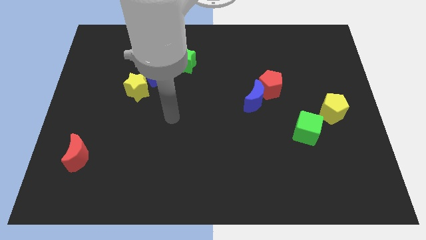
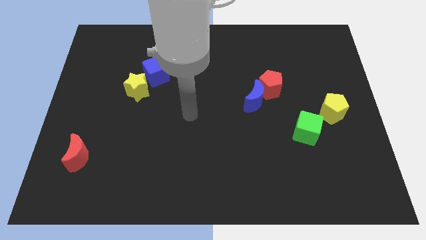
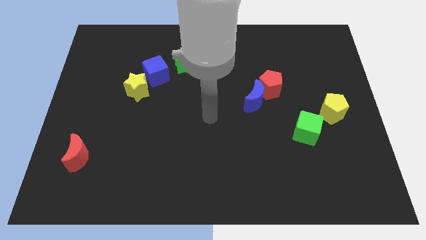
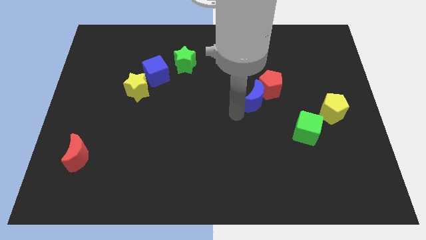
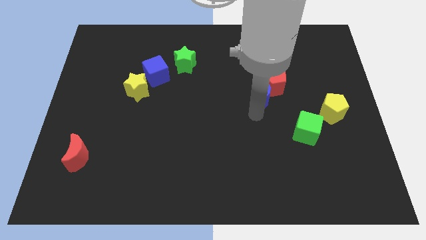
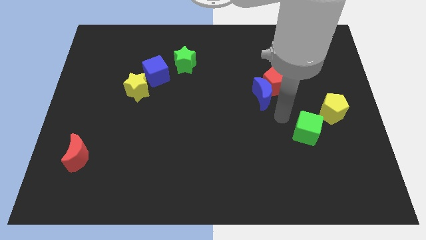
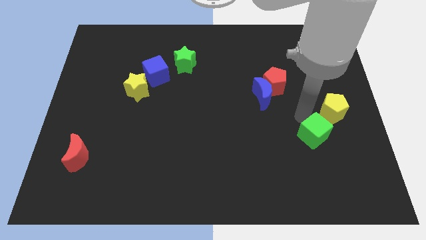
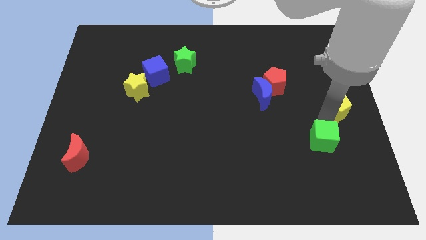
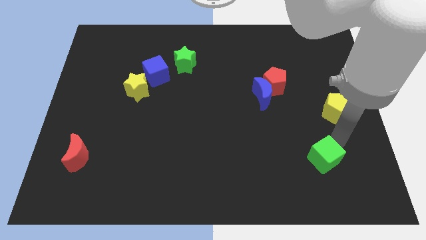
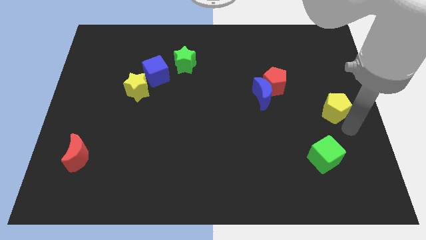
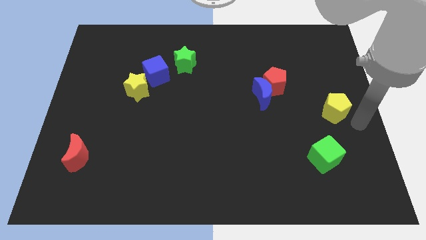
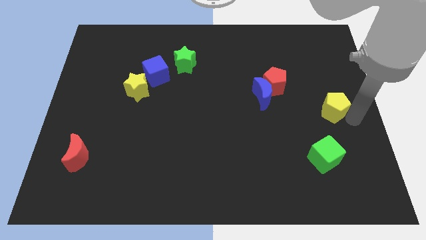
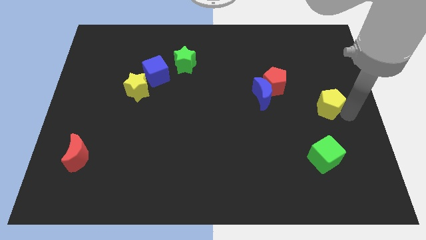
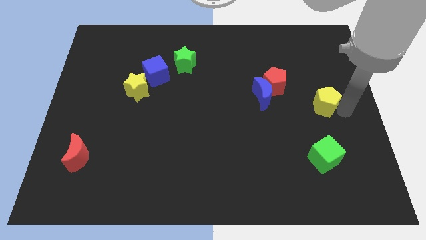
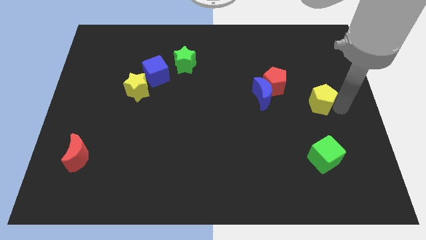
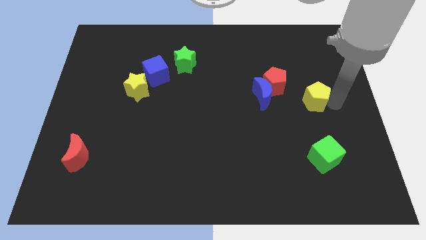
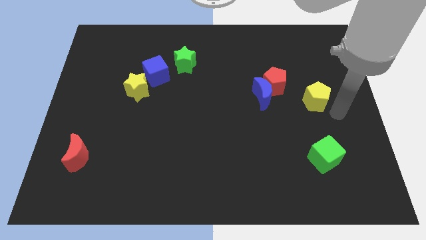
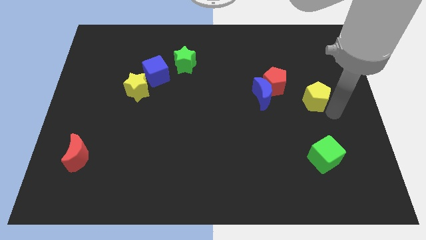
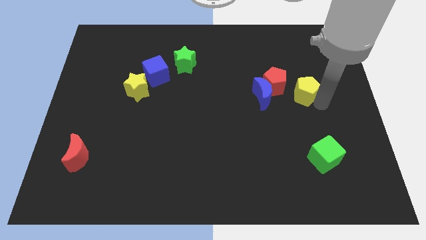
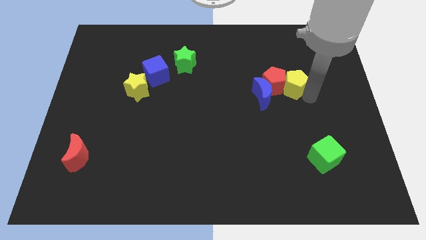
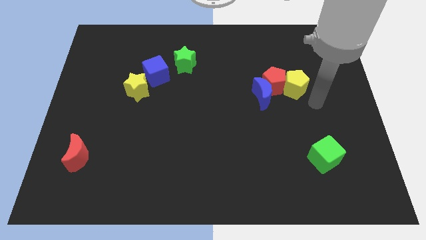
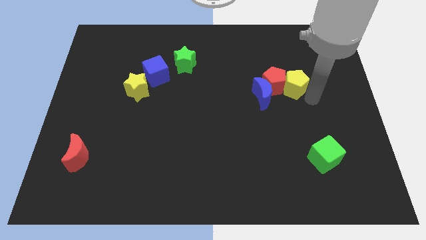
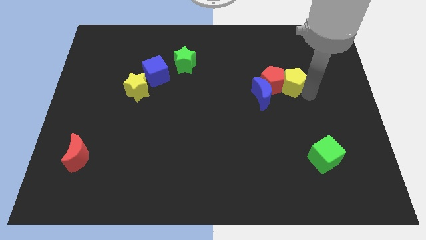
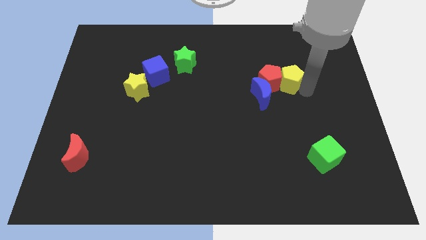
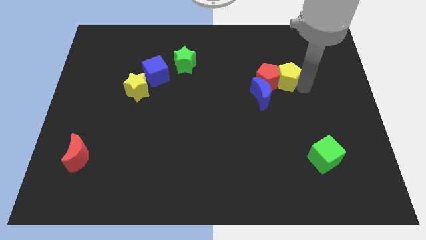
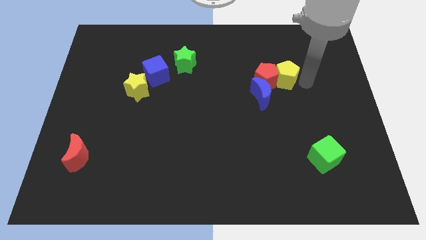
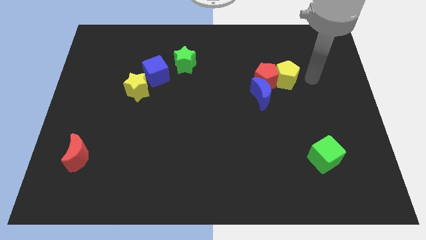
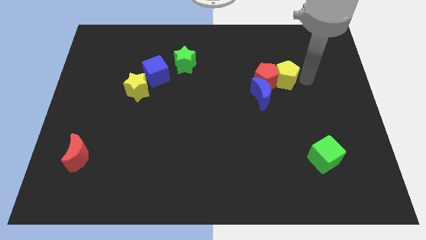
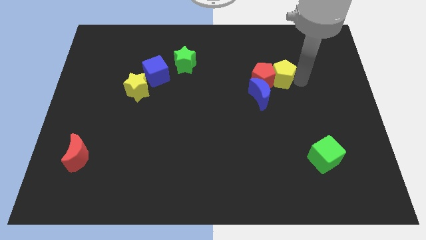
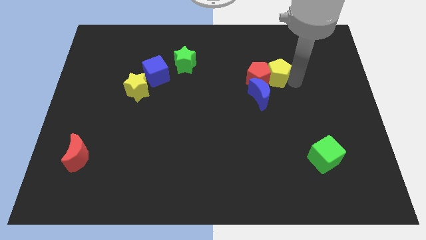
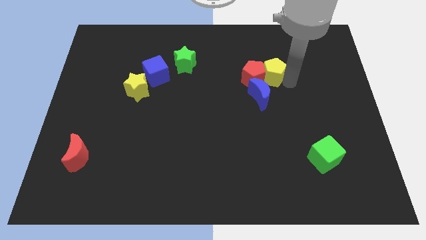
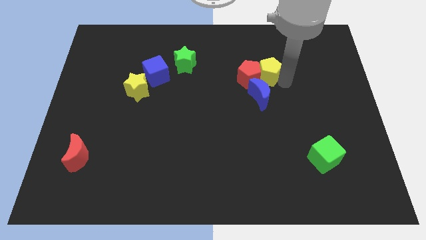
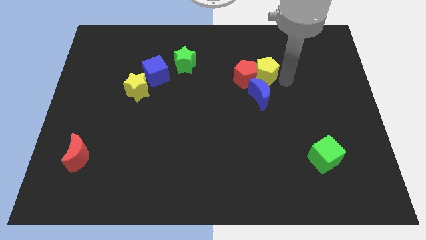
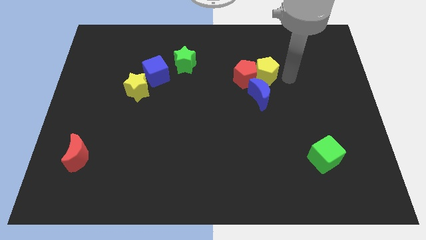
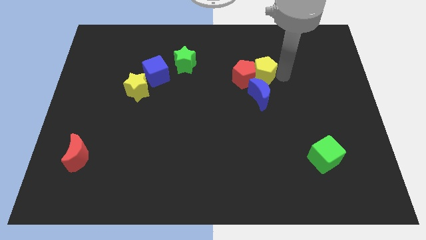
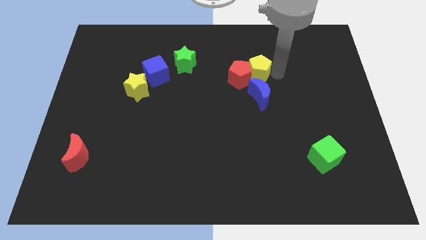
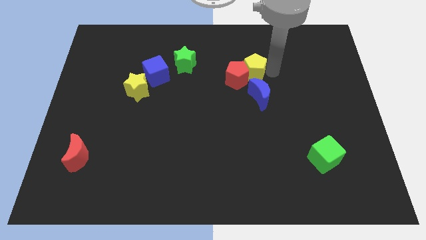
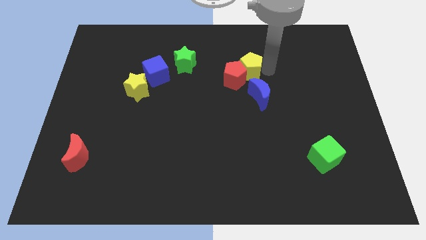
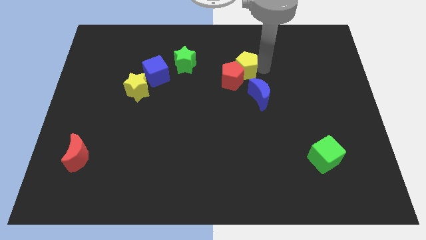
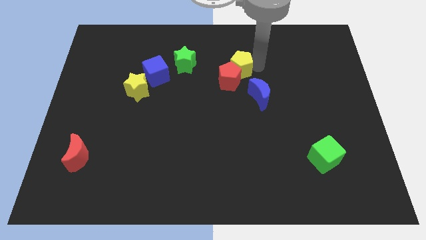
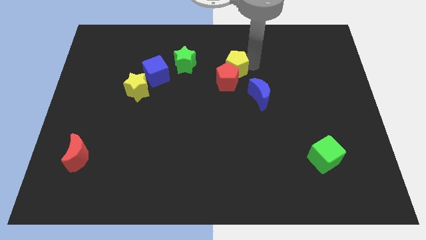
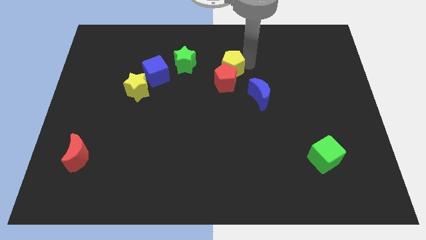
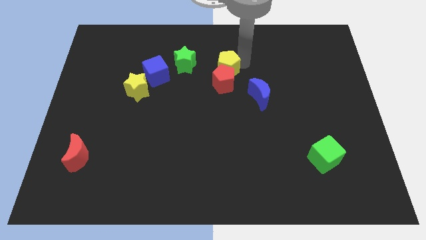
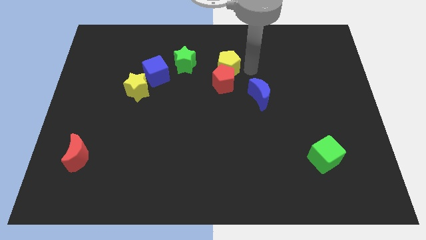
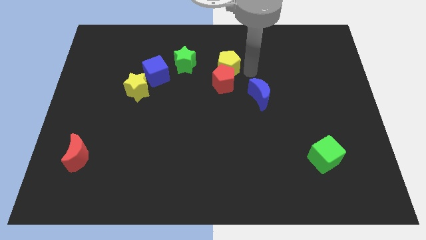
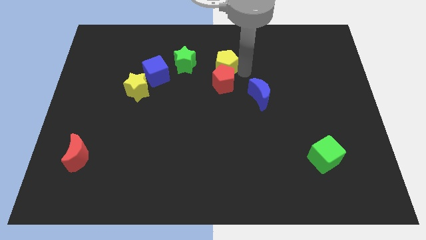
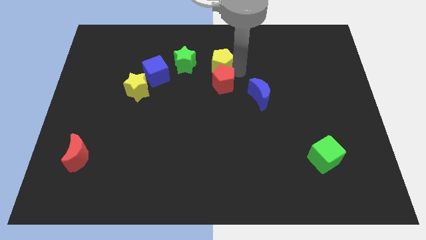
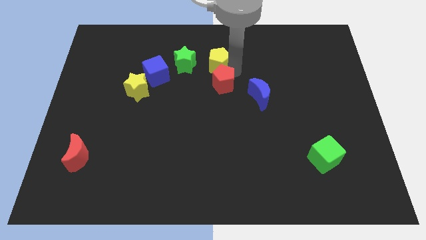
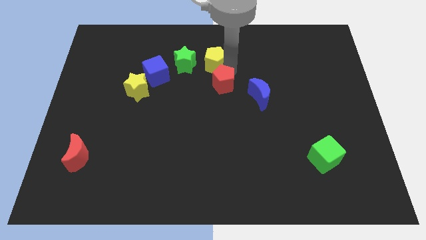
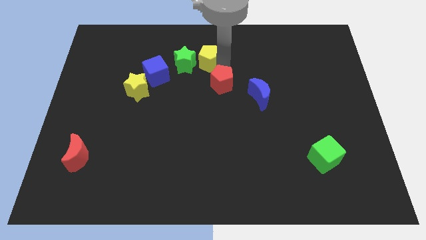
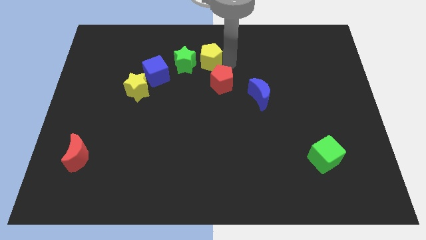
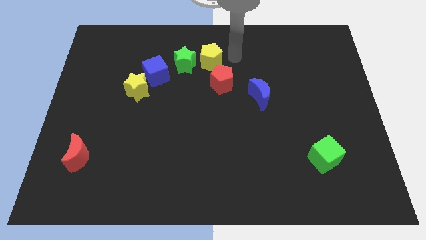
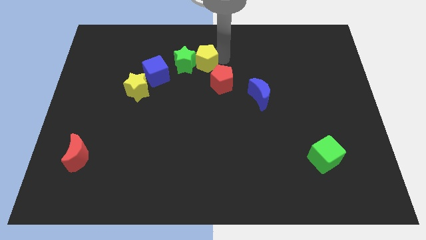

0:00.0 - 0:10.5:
push the yellow pentagon close to the green star
